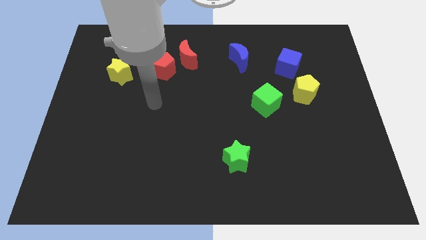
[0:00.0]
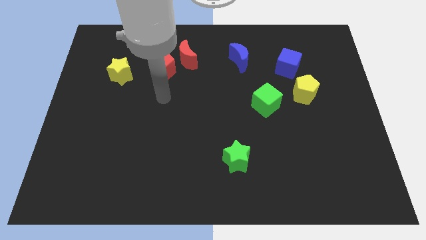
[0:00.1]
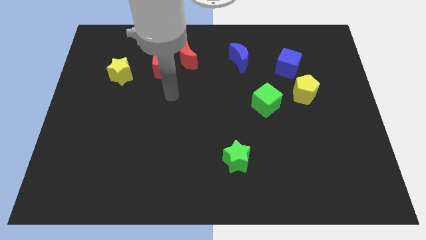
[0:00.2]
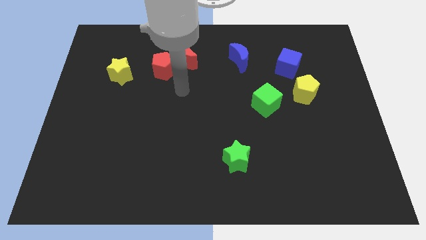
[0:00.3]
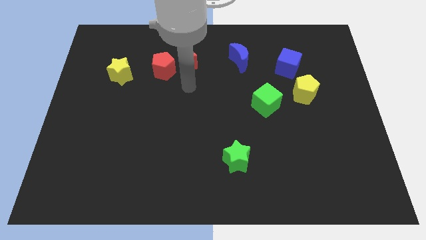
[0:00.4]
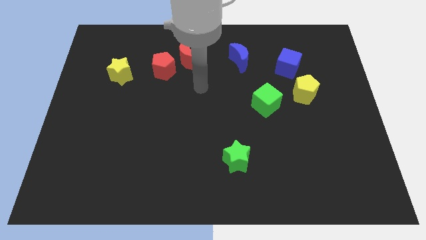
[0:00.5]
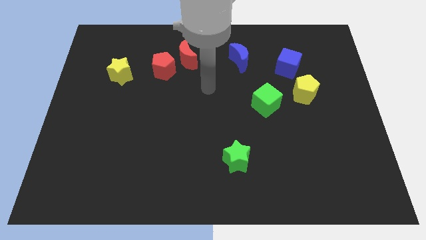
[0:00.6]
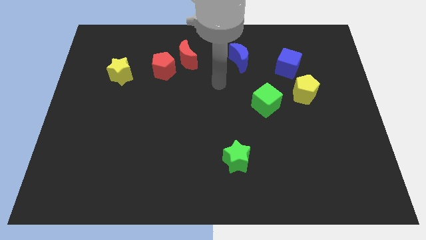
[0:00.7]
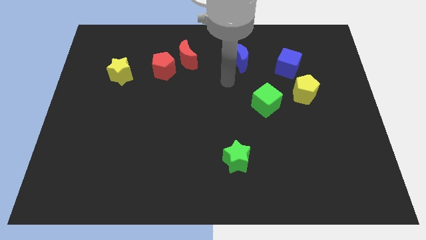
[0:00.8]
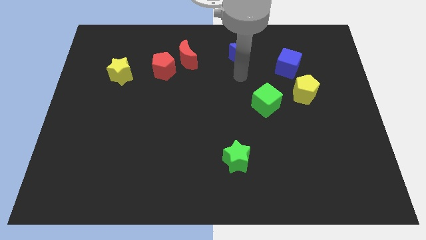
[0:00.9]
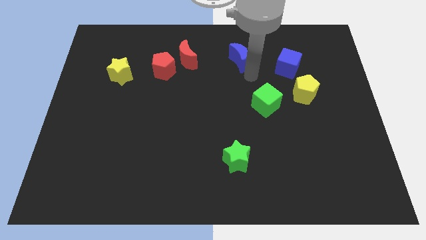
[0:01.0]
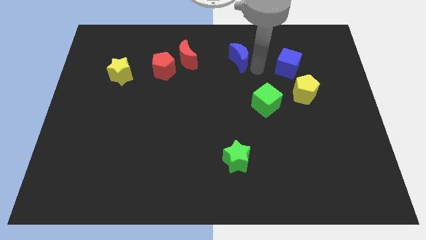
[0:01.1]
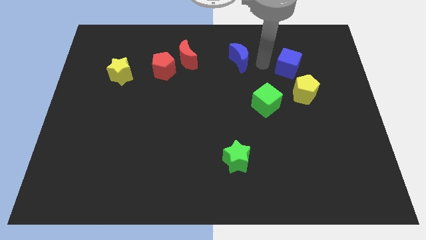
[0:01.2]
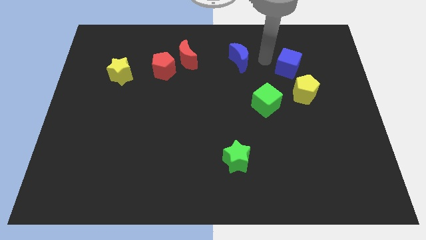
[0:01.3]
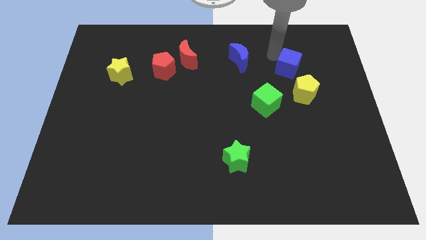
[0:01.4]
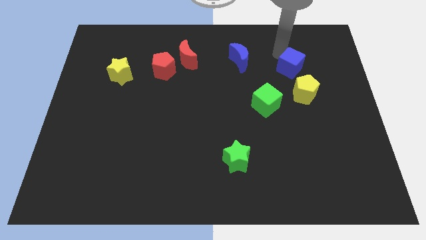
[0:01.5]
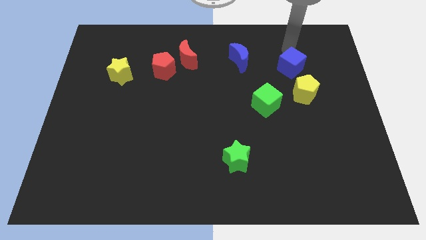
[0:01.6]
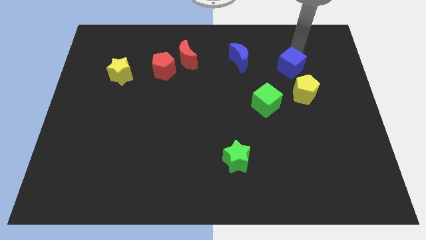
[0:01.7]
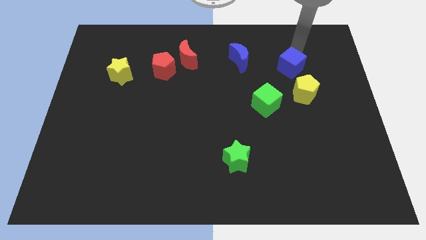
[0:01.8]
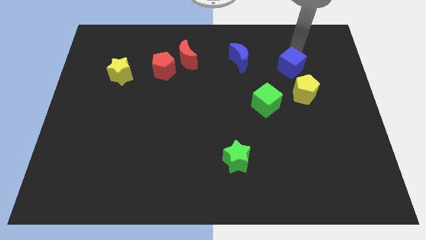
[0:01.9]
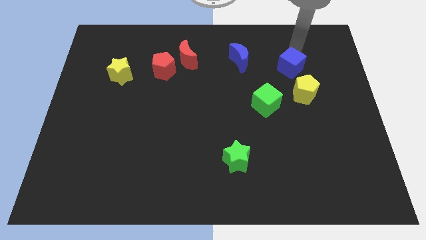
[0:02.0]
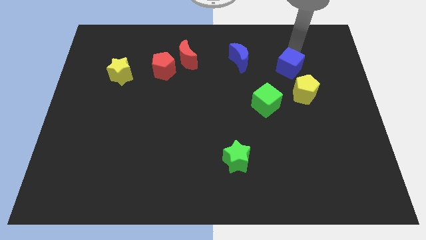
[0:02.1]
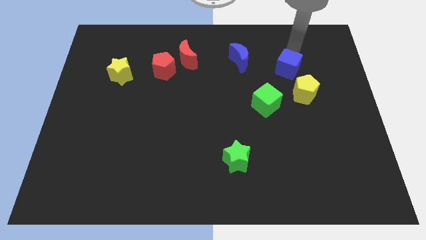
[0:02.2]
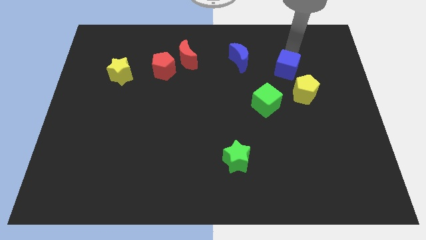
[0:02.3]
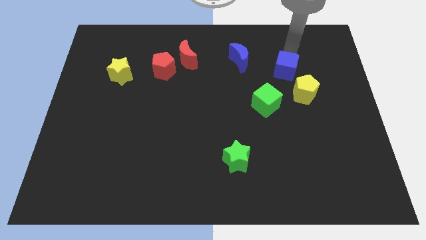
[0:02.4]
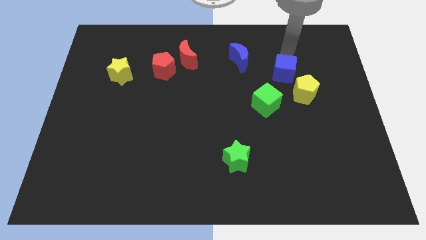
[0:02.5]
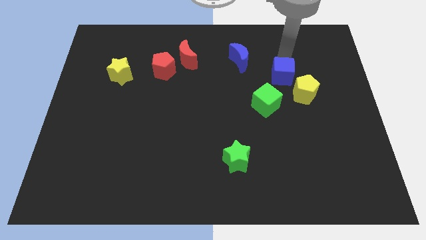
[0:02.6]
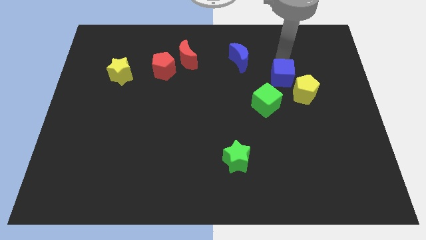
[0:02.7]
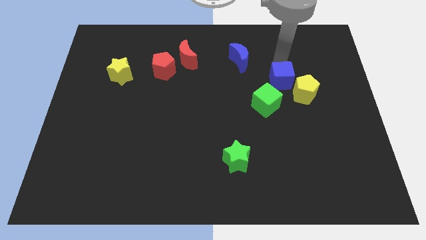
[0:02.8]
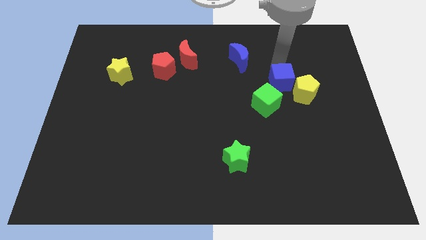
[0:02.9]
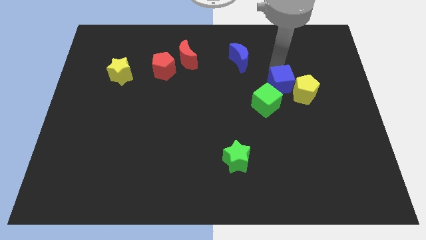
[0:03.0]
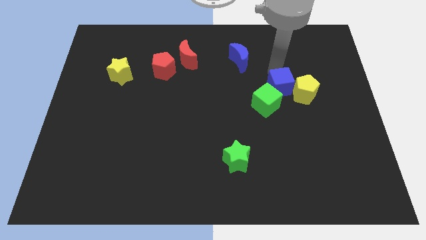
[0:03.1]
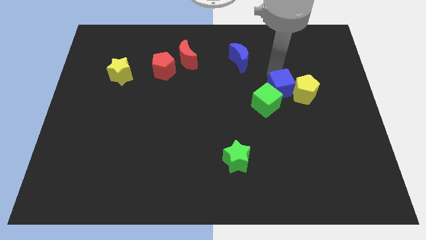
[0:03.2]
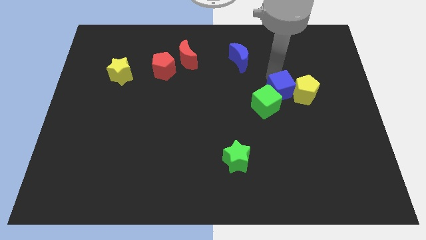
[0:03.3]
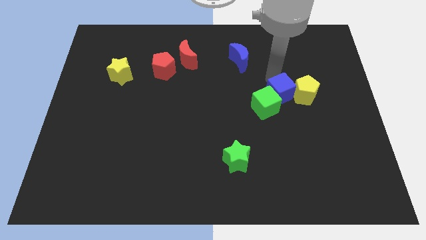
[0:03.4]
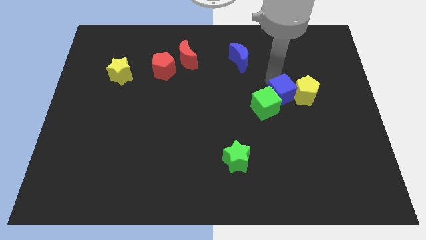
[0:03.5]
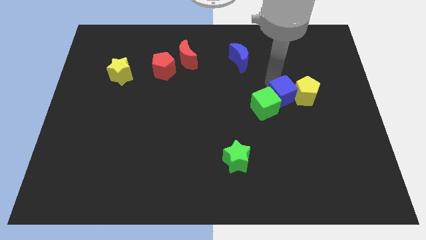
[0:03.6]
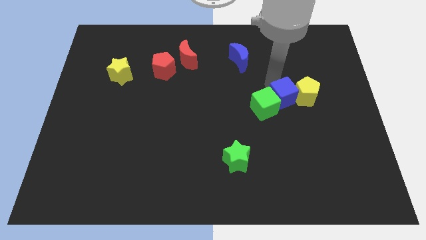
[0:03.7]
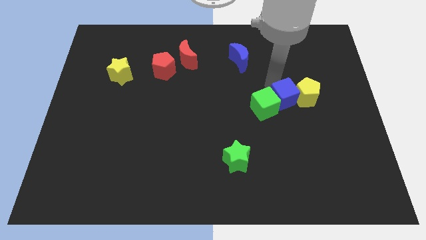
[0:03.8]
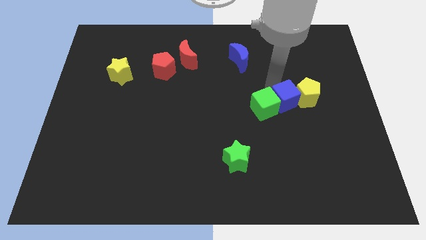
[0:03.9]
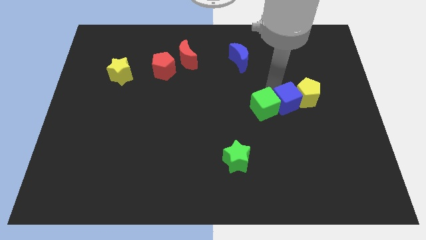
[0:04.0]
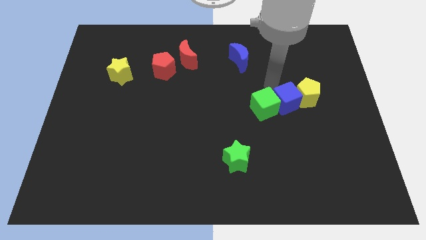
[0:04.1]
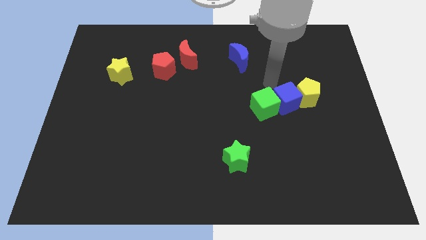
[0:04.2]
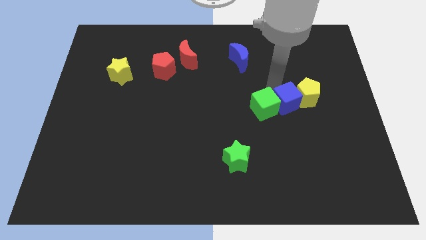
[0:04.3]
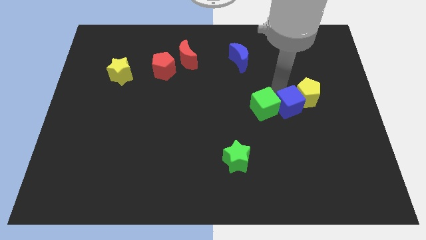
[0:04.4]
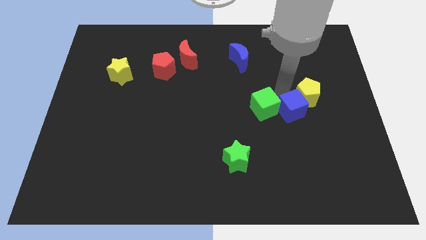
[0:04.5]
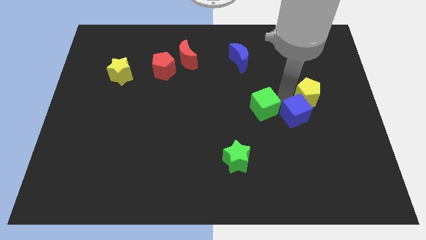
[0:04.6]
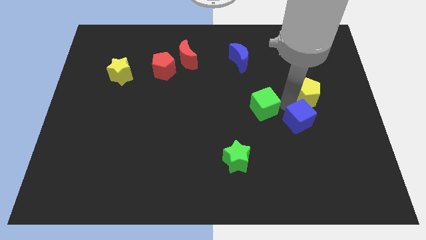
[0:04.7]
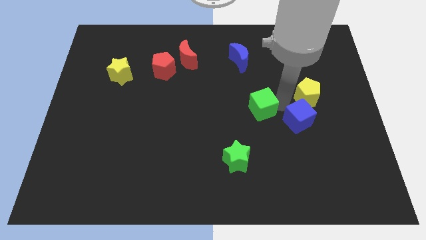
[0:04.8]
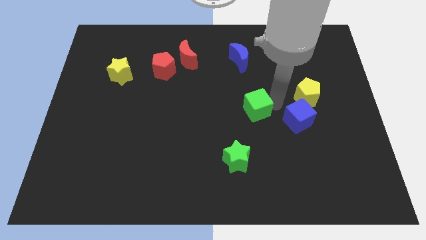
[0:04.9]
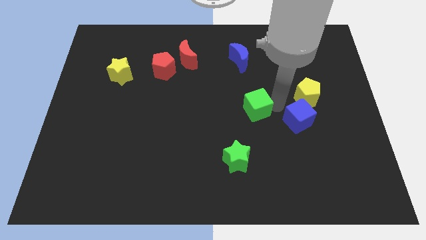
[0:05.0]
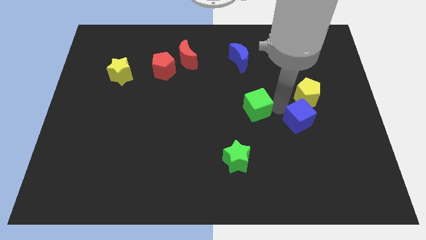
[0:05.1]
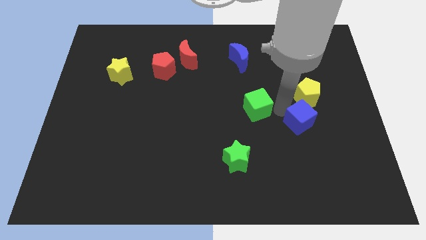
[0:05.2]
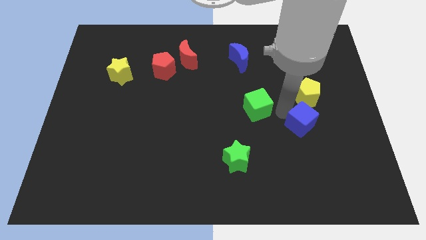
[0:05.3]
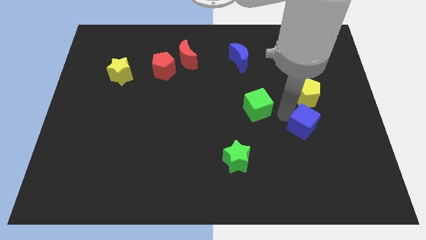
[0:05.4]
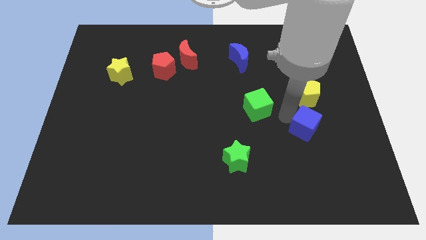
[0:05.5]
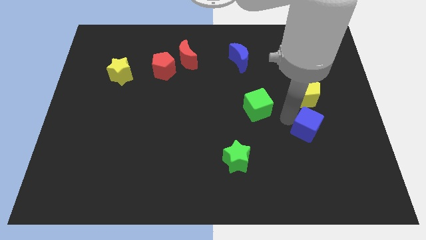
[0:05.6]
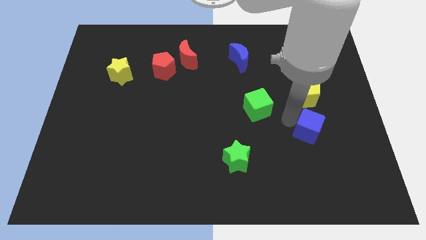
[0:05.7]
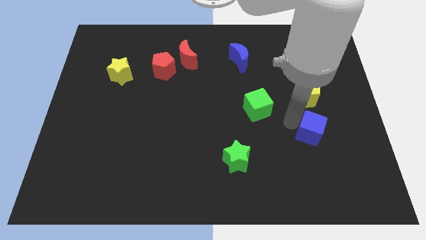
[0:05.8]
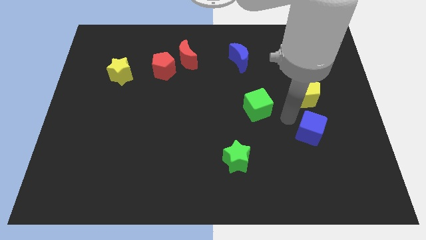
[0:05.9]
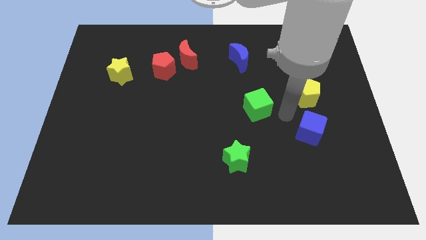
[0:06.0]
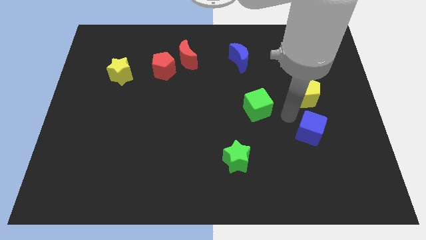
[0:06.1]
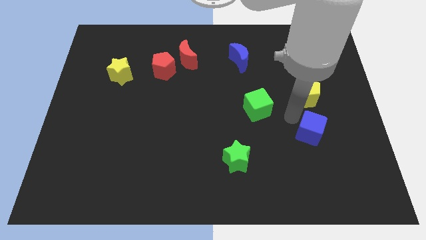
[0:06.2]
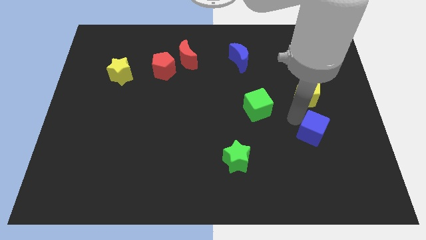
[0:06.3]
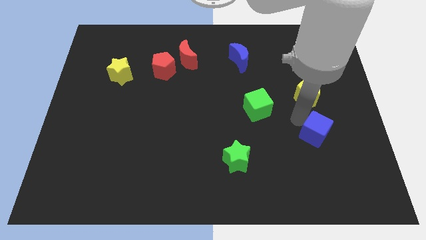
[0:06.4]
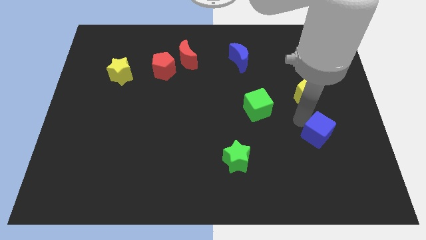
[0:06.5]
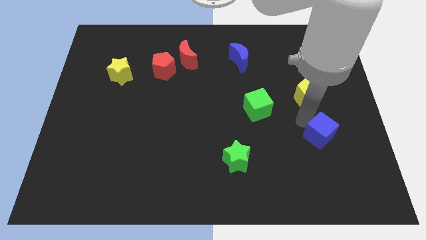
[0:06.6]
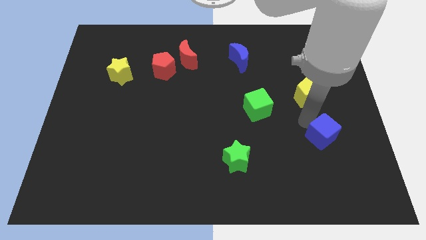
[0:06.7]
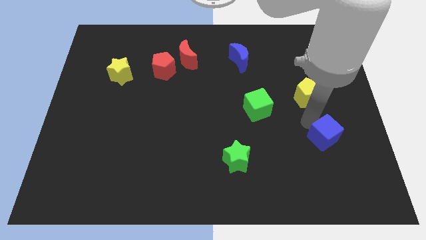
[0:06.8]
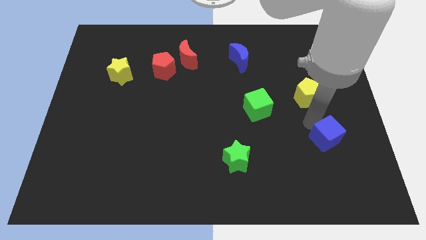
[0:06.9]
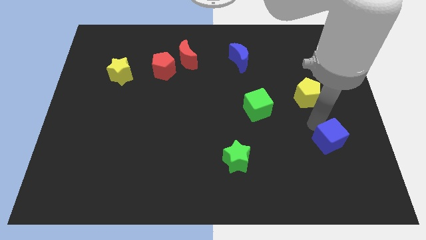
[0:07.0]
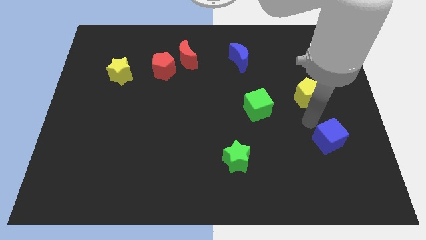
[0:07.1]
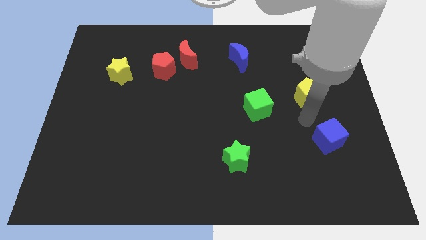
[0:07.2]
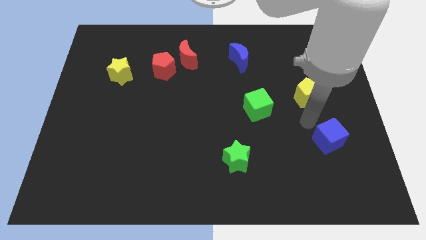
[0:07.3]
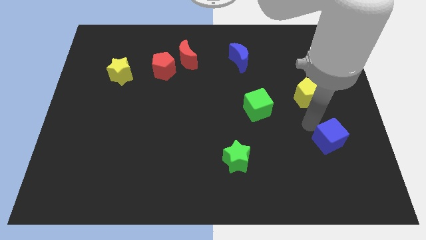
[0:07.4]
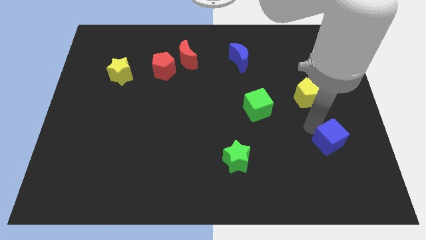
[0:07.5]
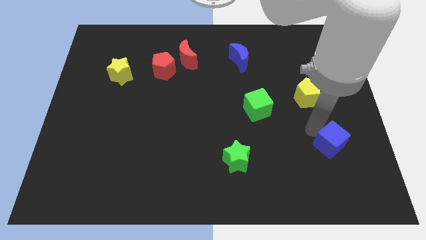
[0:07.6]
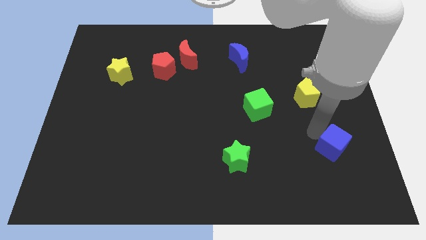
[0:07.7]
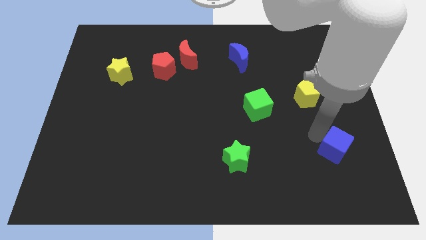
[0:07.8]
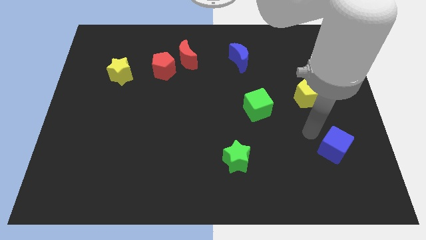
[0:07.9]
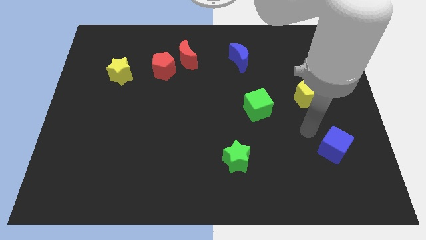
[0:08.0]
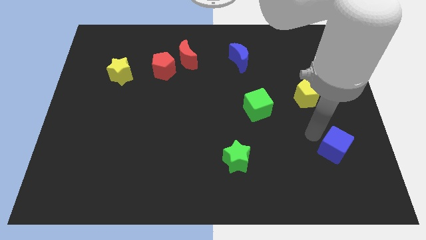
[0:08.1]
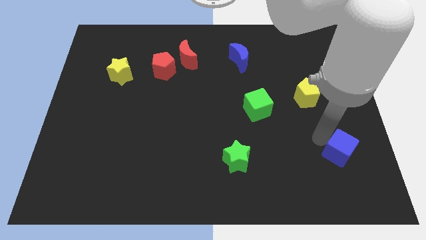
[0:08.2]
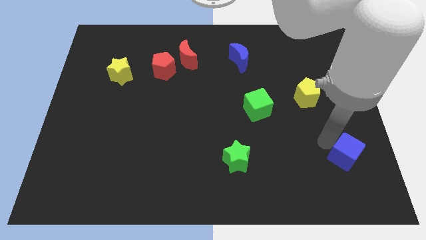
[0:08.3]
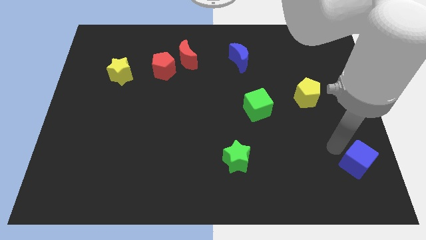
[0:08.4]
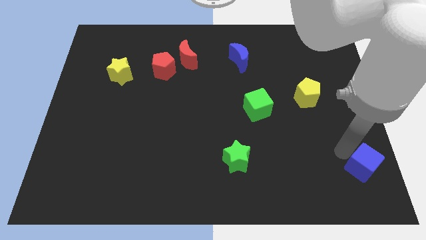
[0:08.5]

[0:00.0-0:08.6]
move the blue cube to the lower right corner
